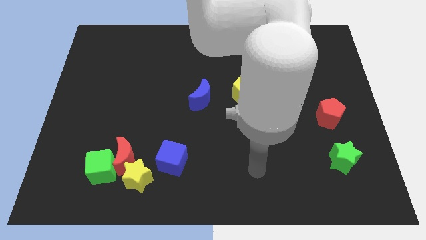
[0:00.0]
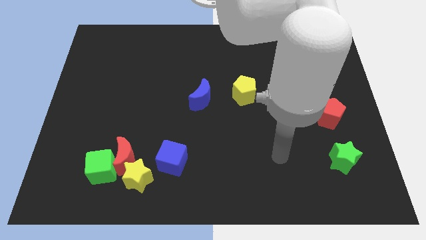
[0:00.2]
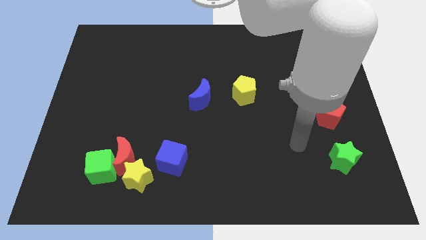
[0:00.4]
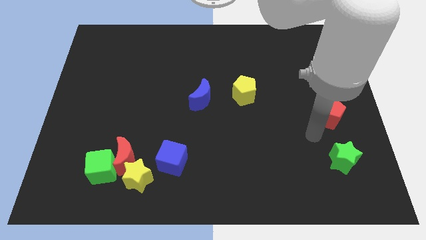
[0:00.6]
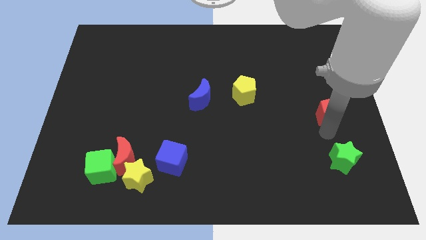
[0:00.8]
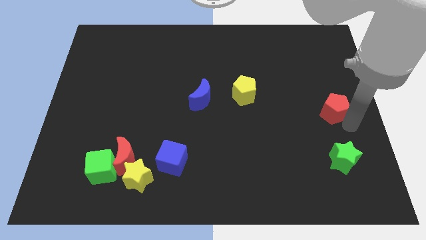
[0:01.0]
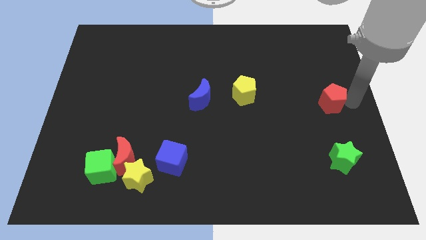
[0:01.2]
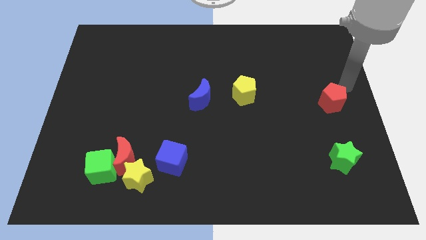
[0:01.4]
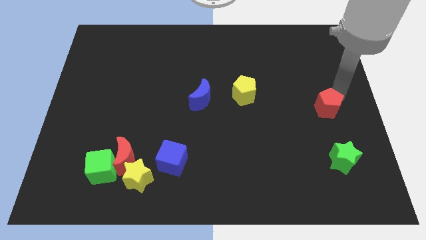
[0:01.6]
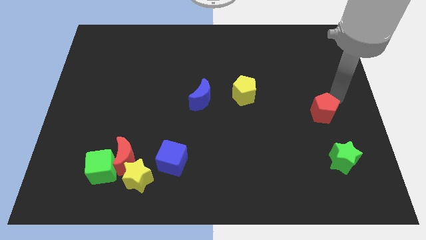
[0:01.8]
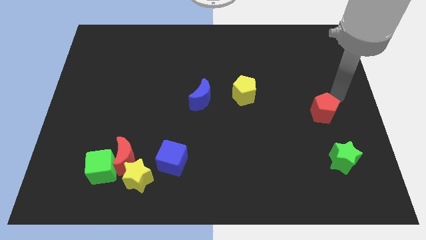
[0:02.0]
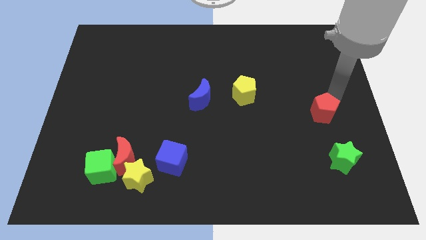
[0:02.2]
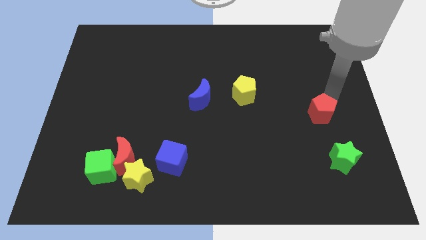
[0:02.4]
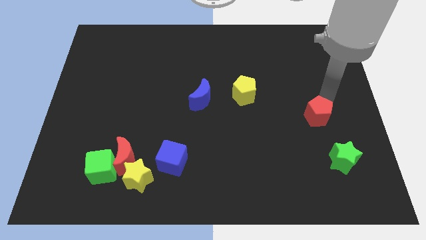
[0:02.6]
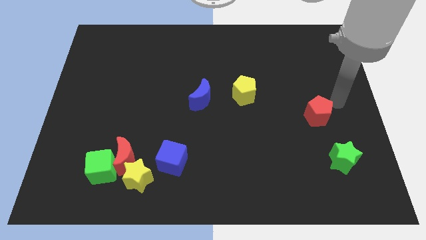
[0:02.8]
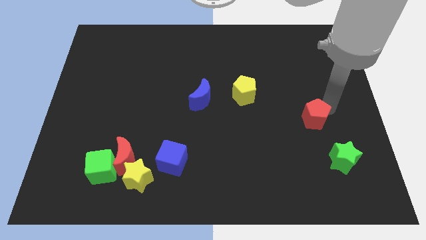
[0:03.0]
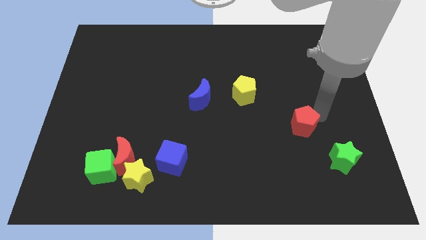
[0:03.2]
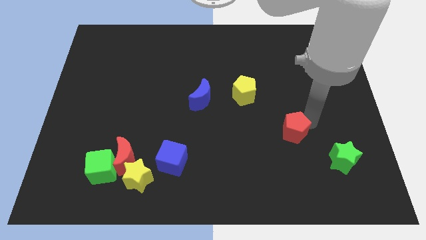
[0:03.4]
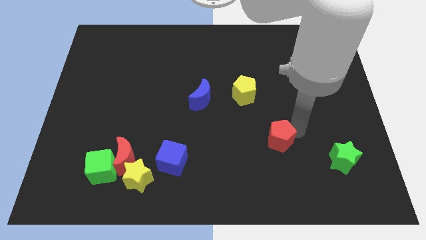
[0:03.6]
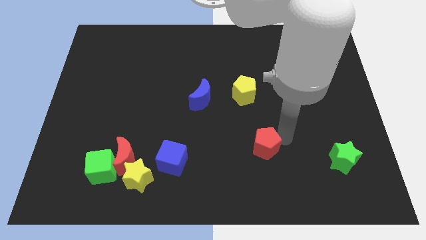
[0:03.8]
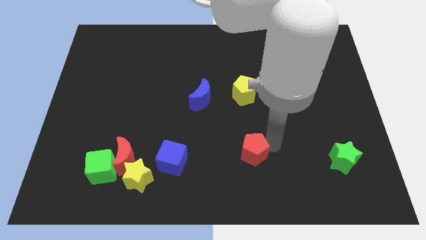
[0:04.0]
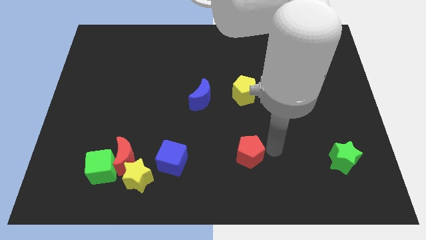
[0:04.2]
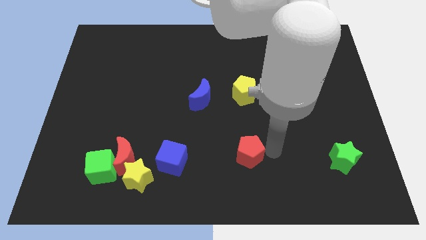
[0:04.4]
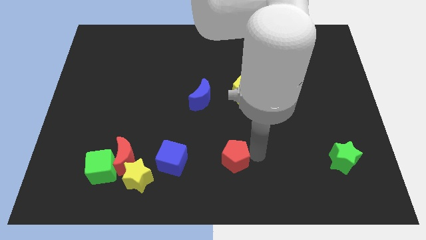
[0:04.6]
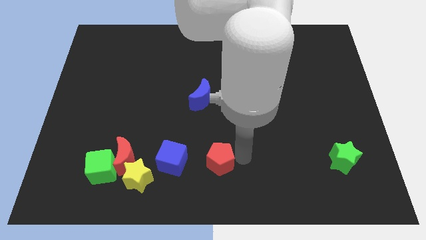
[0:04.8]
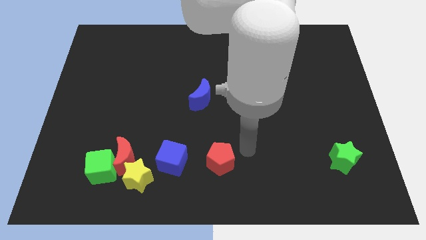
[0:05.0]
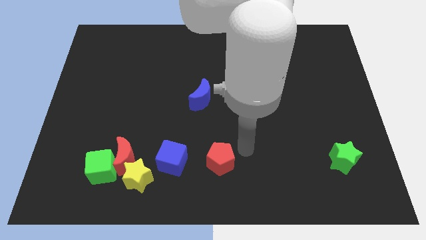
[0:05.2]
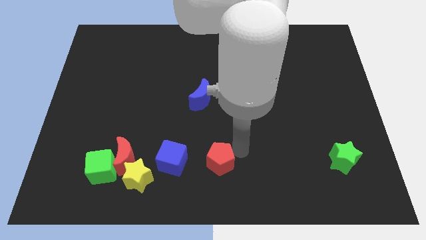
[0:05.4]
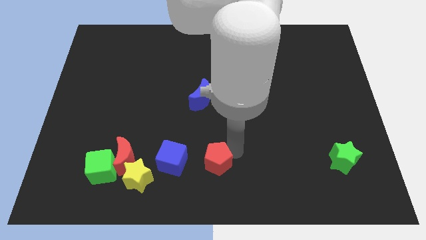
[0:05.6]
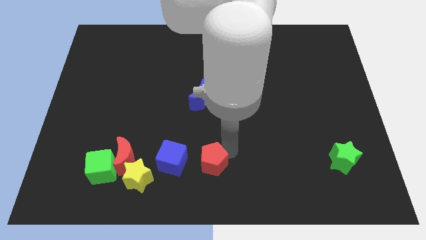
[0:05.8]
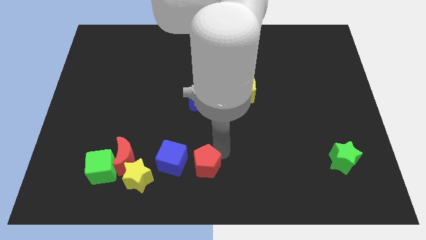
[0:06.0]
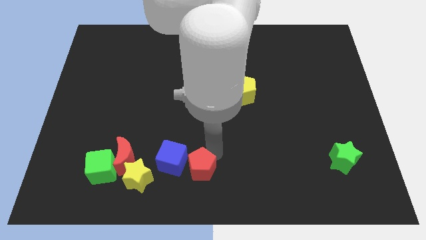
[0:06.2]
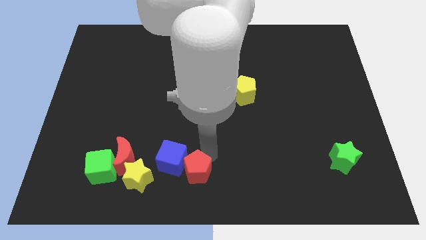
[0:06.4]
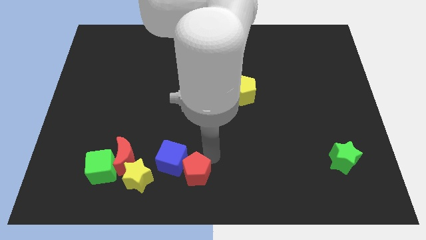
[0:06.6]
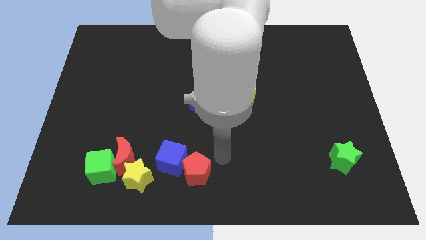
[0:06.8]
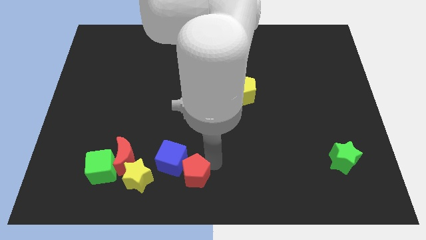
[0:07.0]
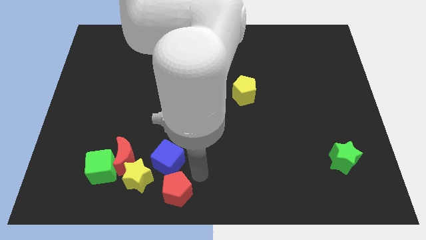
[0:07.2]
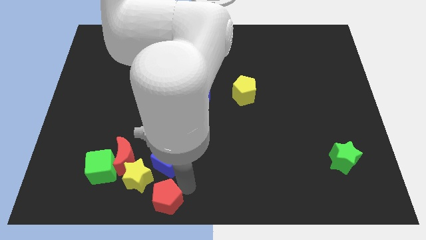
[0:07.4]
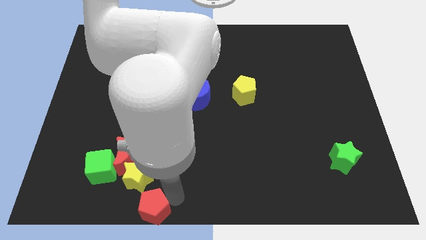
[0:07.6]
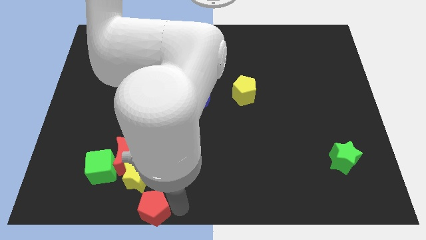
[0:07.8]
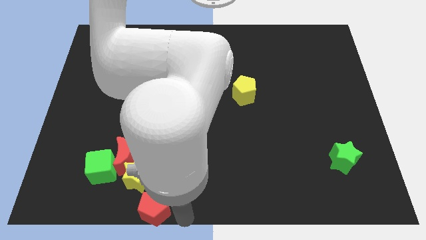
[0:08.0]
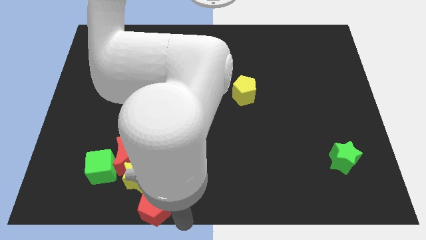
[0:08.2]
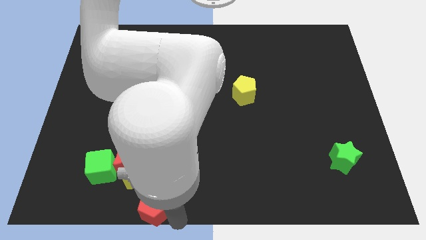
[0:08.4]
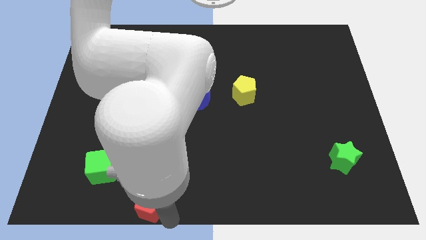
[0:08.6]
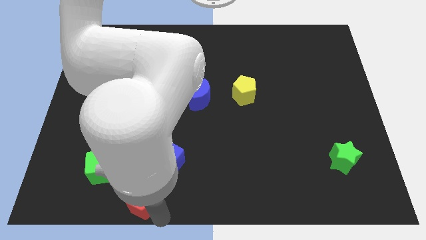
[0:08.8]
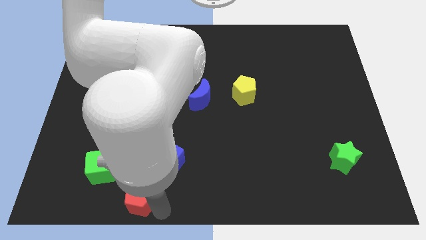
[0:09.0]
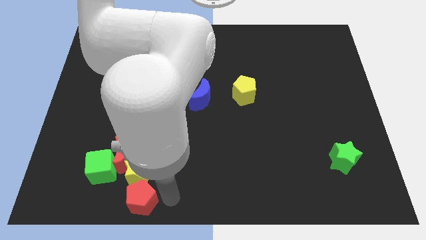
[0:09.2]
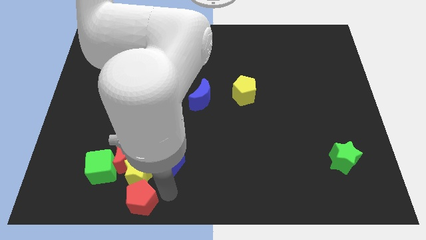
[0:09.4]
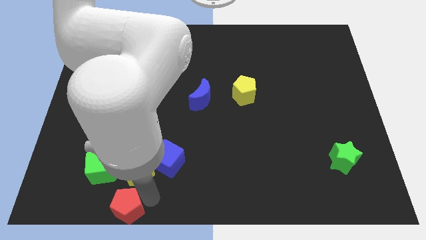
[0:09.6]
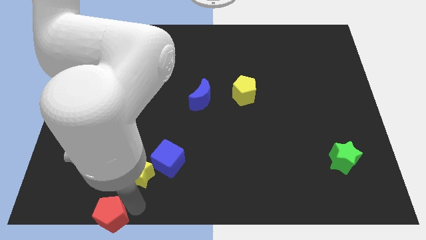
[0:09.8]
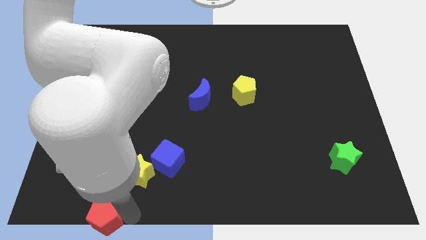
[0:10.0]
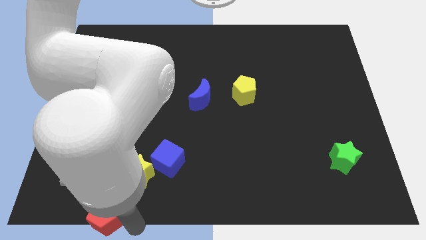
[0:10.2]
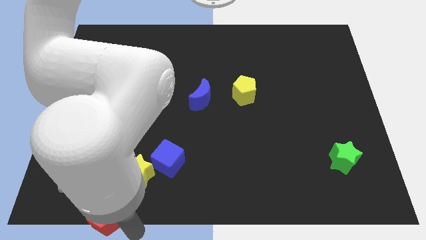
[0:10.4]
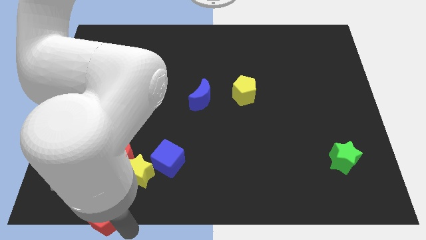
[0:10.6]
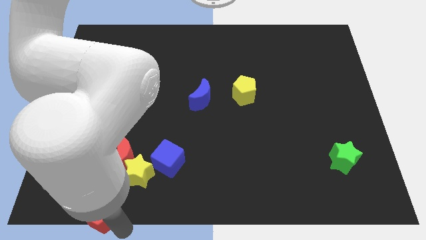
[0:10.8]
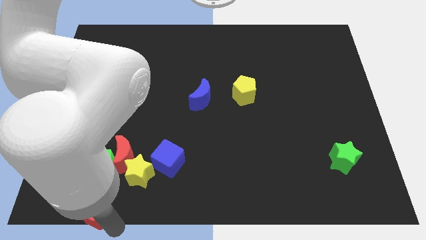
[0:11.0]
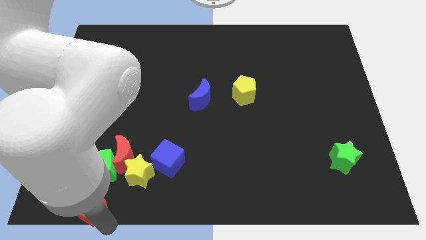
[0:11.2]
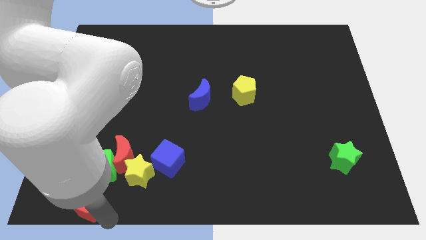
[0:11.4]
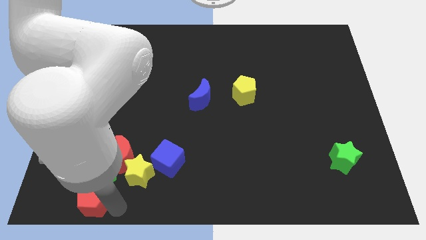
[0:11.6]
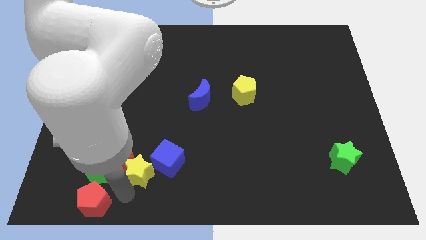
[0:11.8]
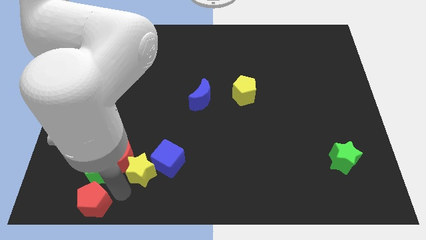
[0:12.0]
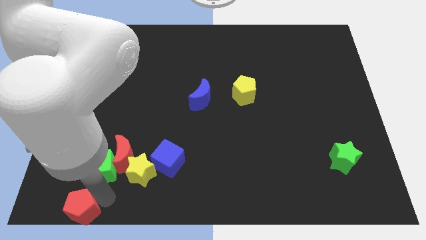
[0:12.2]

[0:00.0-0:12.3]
push the red pentagon to the bottom left
